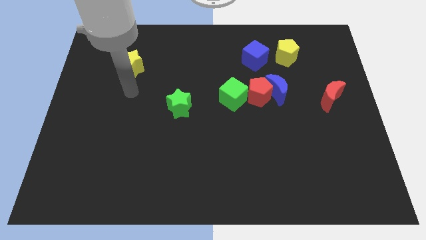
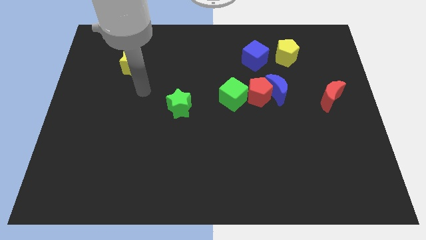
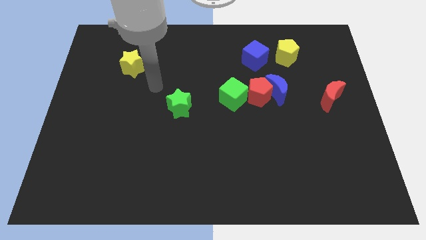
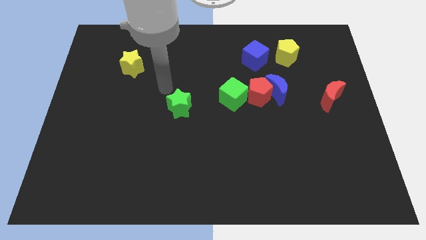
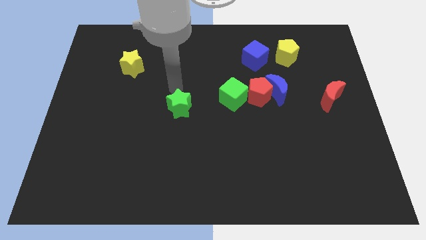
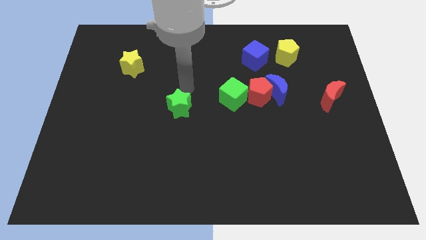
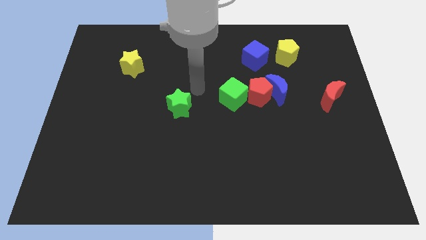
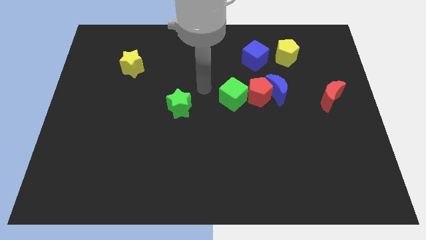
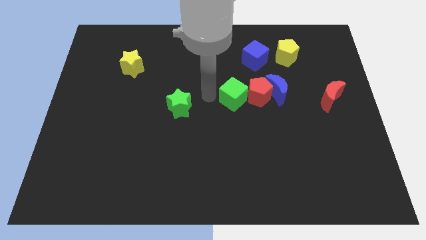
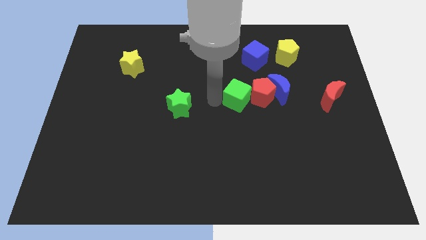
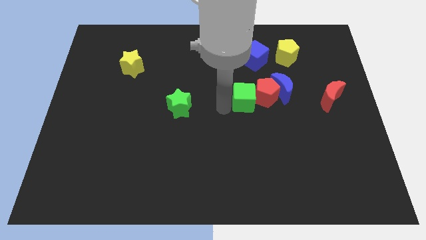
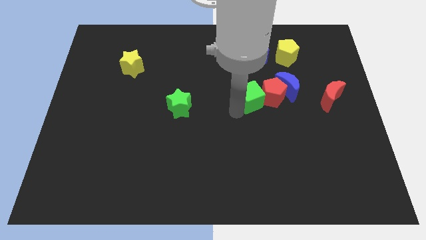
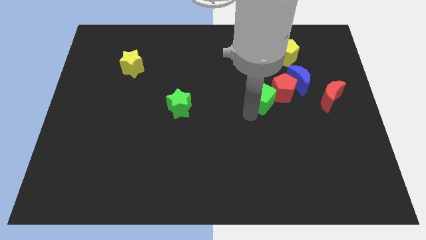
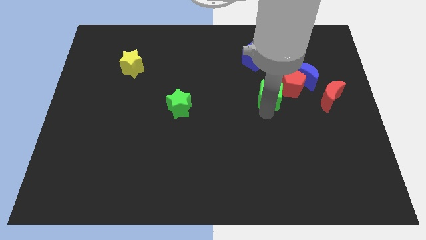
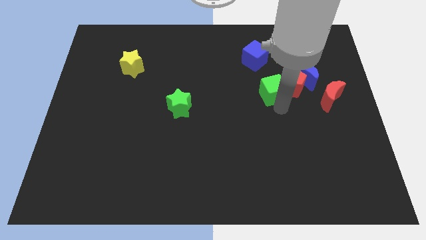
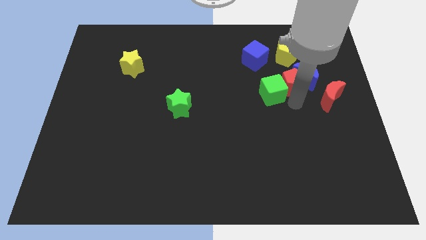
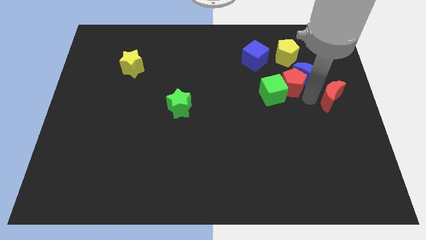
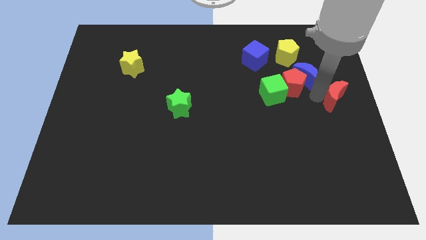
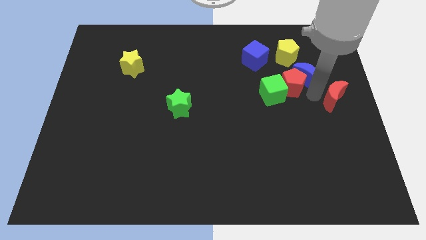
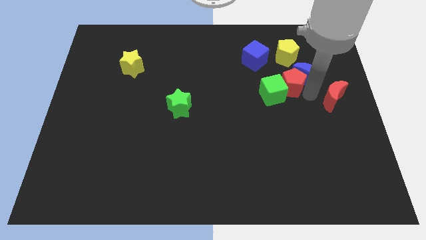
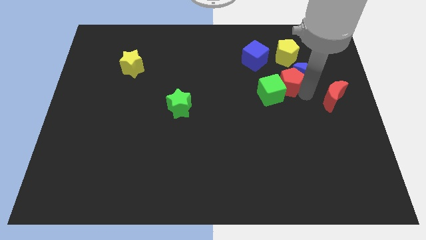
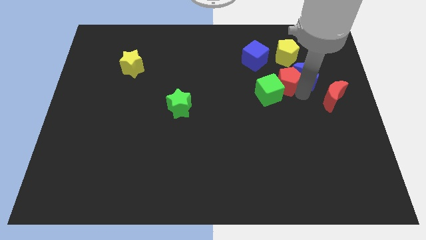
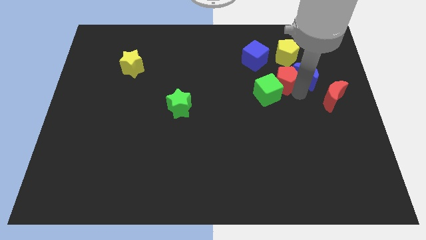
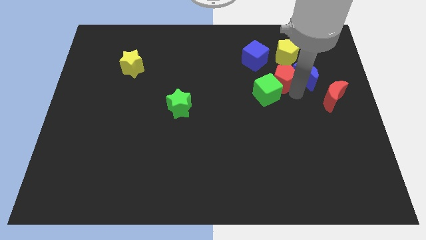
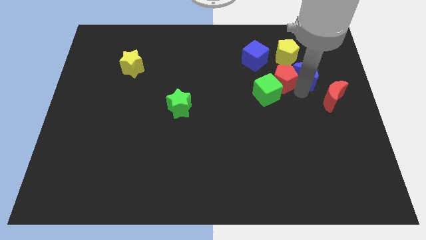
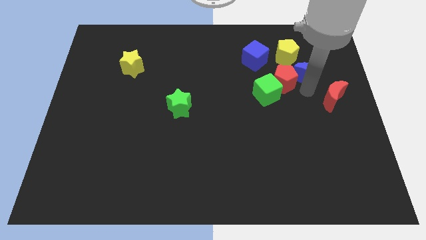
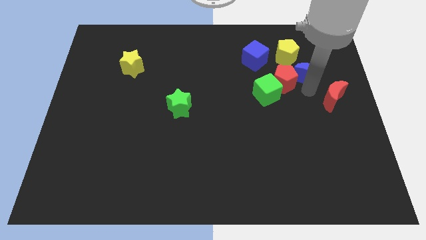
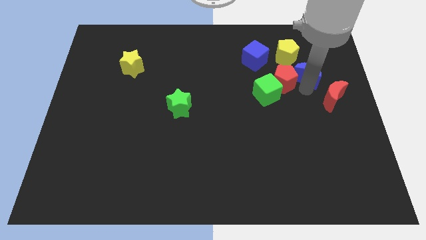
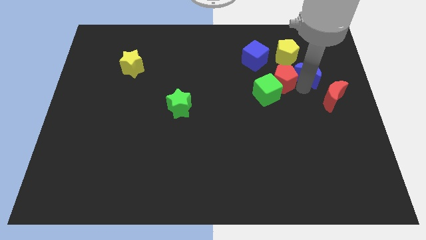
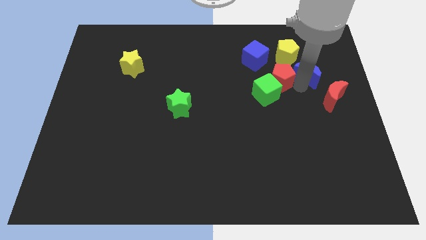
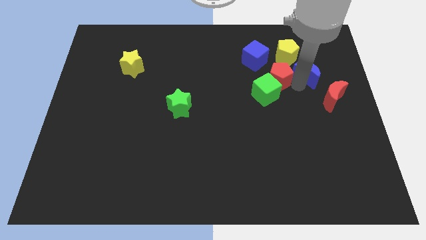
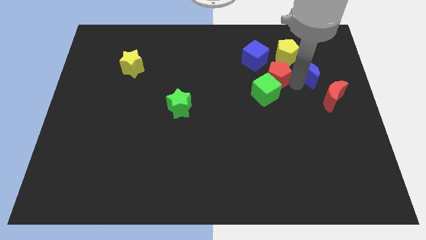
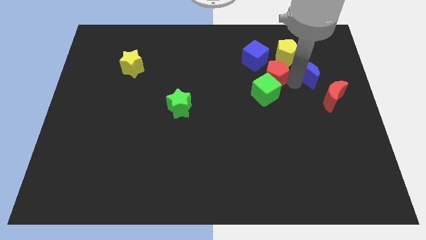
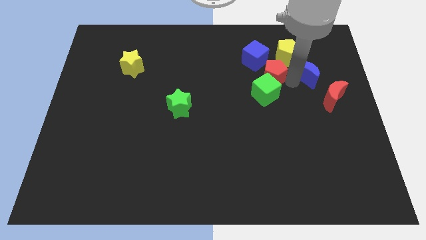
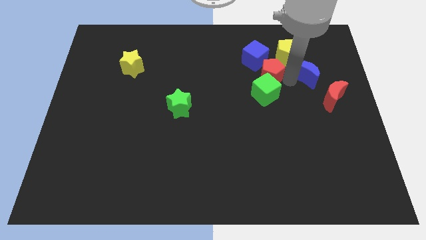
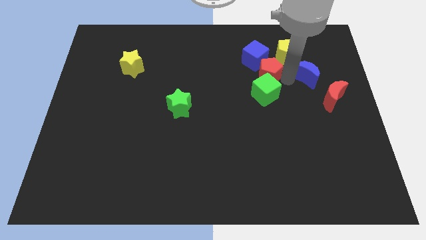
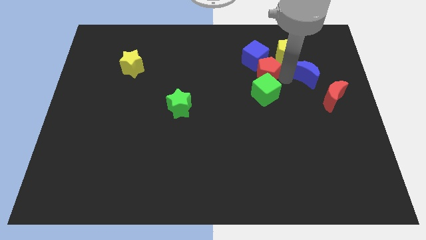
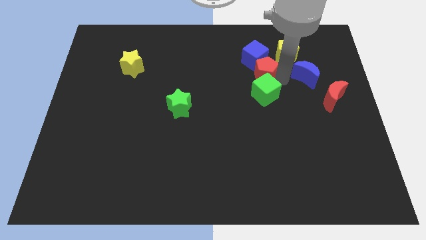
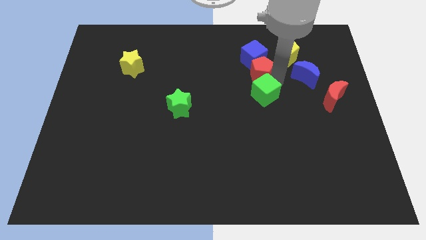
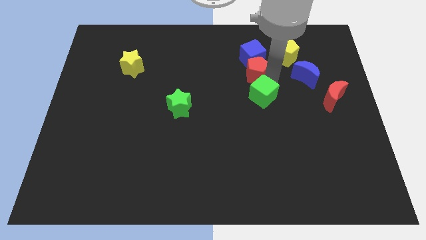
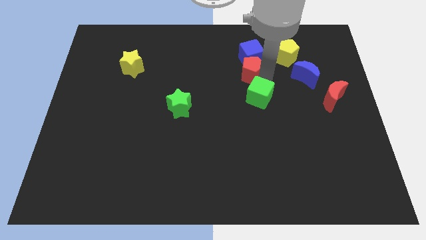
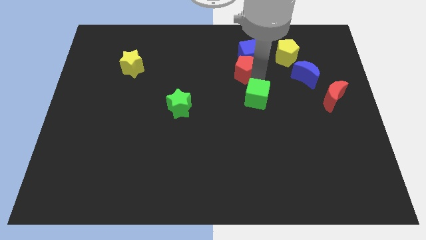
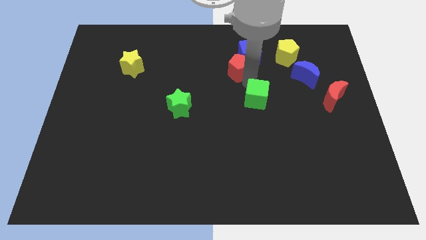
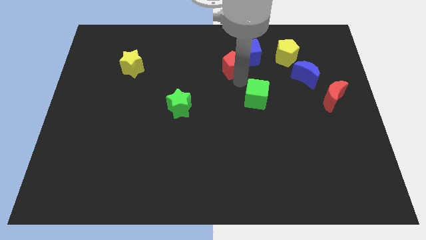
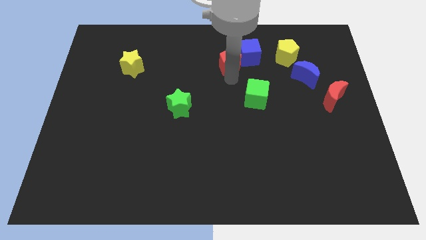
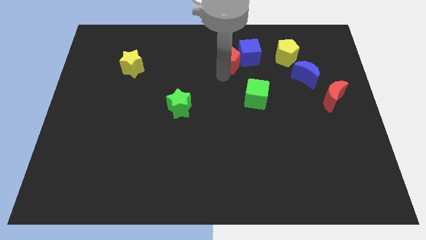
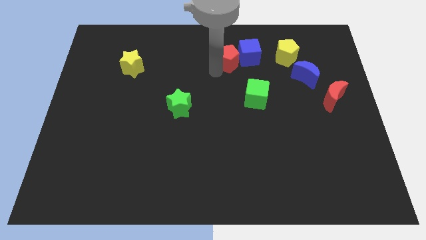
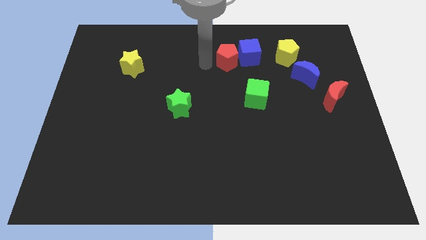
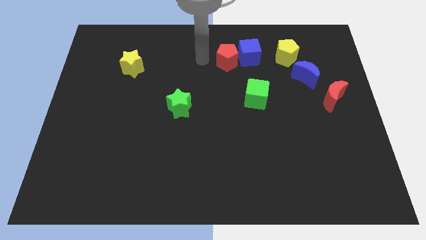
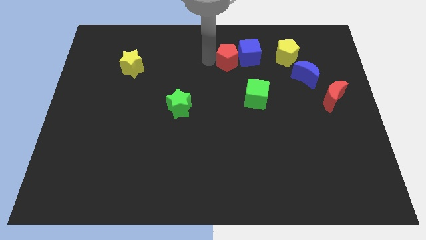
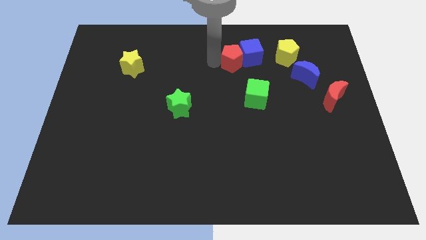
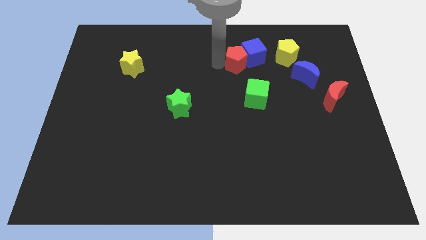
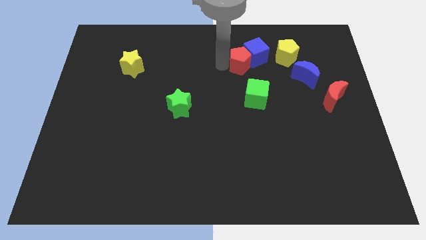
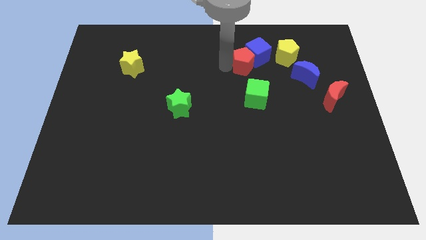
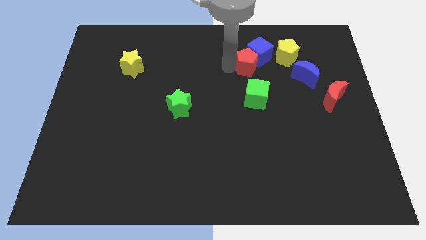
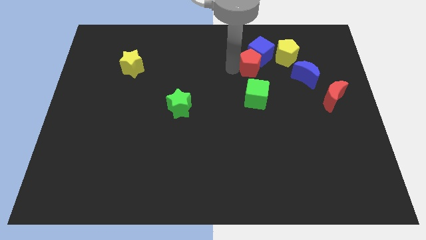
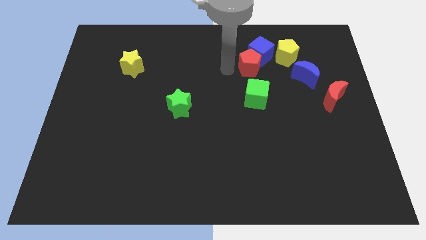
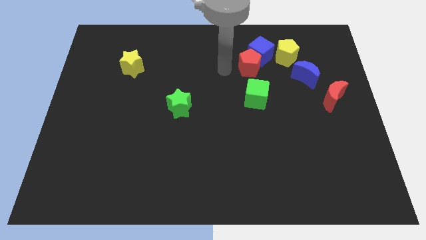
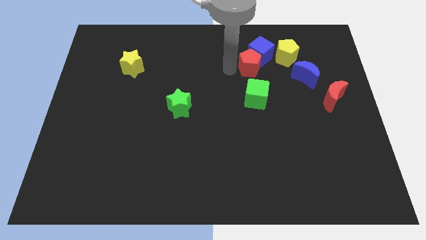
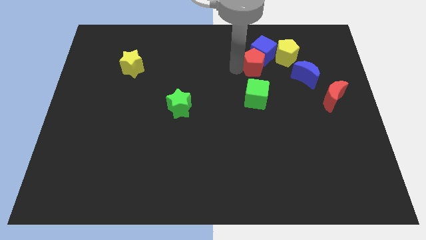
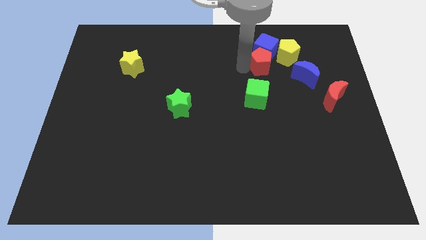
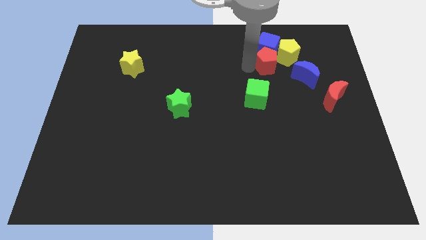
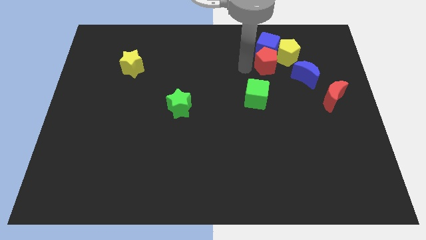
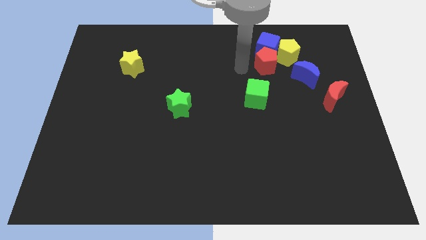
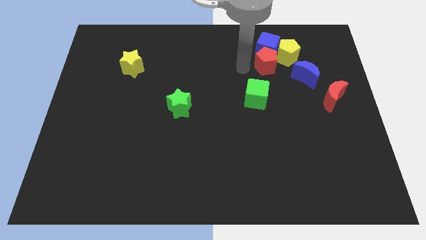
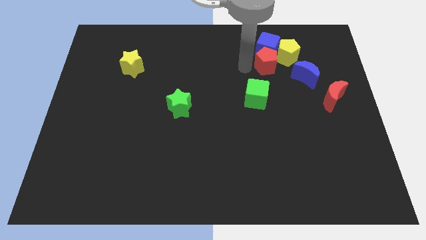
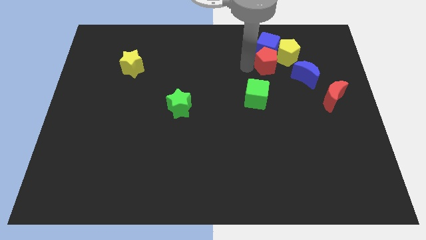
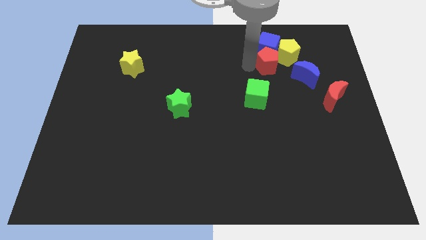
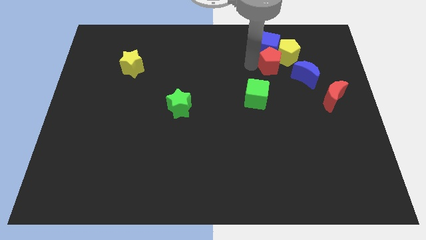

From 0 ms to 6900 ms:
move the red pentagon to the yellow pentagon
